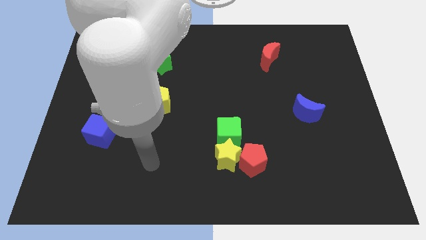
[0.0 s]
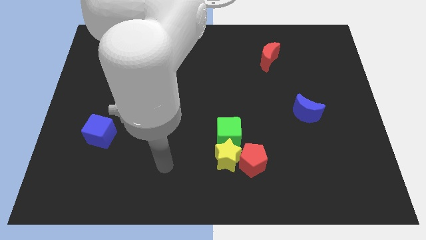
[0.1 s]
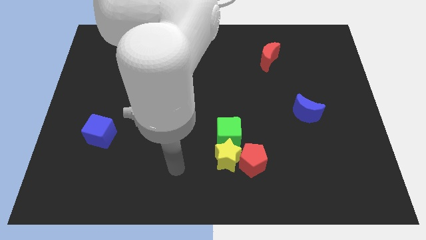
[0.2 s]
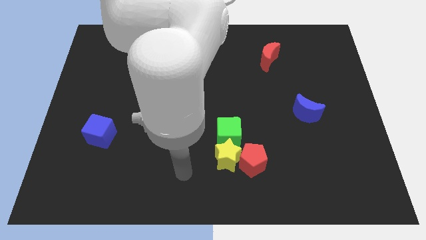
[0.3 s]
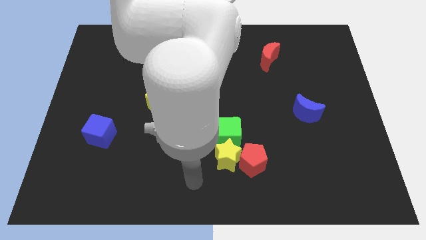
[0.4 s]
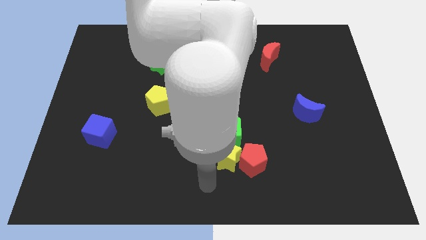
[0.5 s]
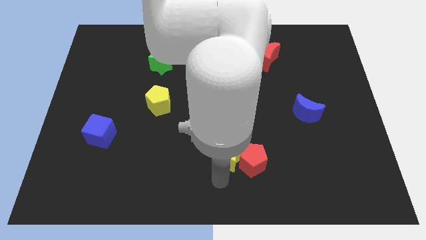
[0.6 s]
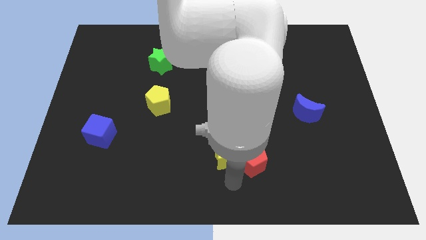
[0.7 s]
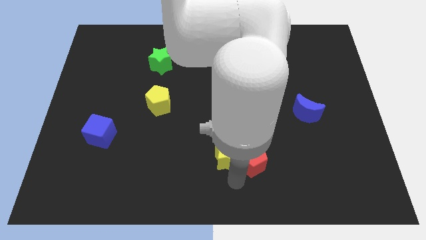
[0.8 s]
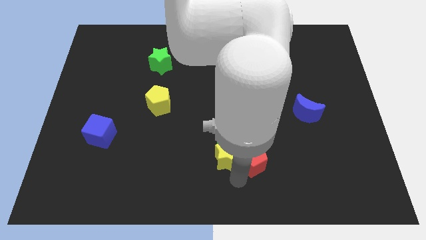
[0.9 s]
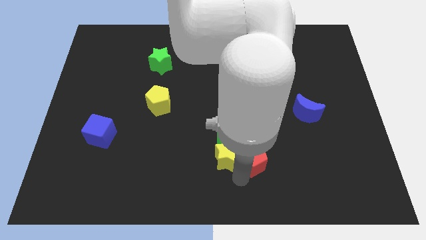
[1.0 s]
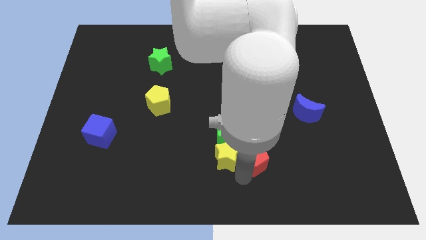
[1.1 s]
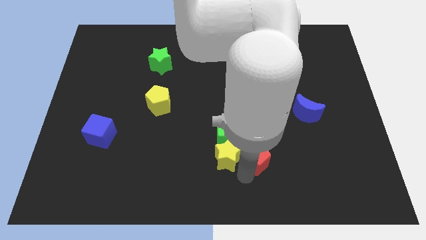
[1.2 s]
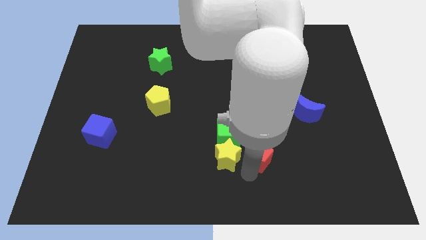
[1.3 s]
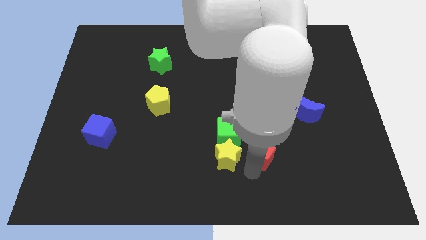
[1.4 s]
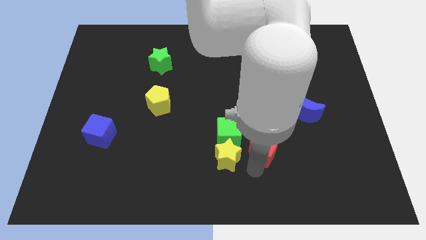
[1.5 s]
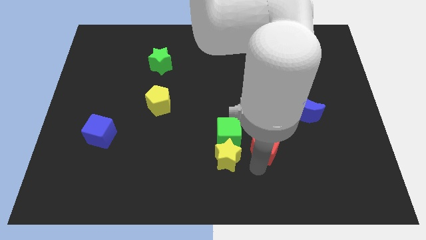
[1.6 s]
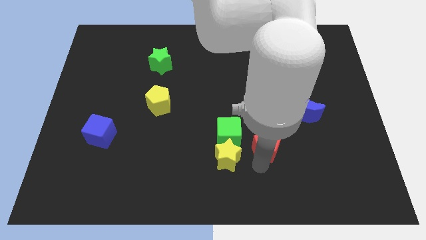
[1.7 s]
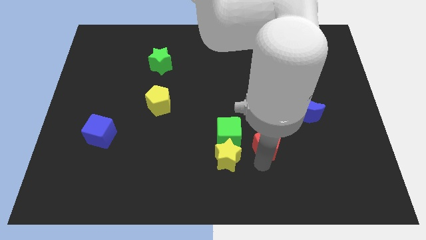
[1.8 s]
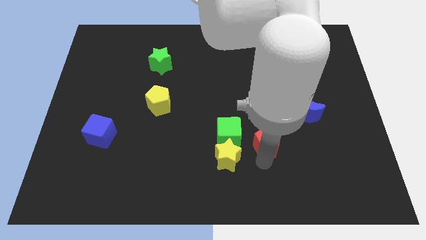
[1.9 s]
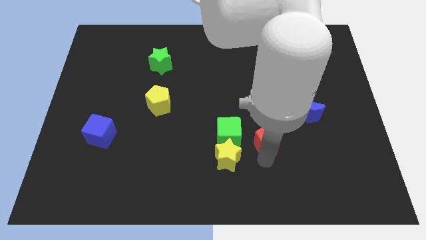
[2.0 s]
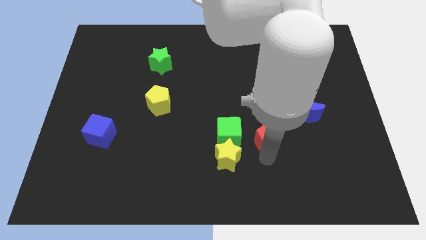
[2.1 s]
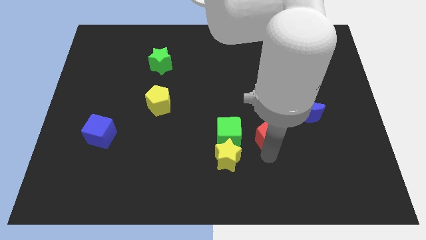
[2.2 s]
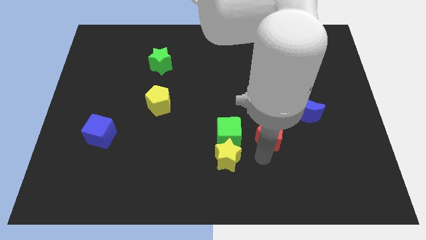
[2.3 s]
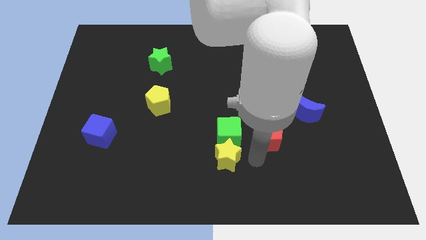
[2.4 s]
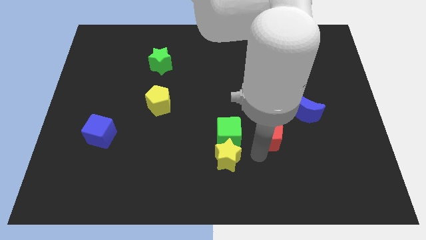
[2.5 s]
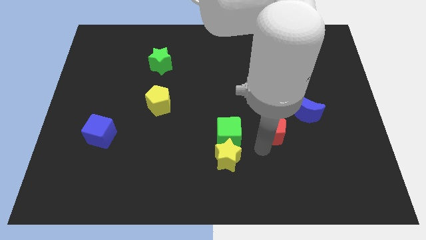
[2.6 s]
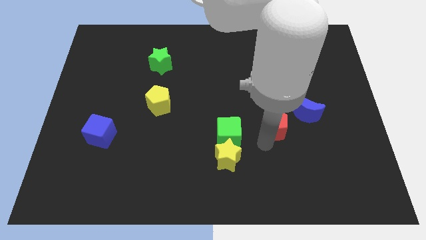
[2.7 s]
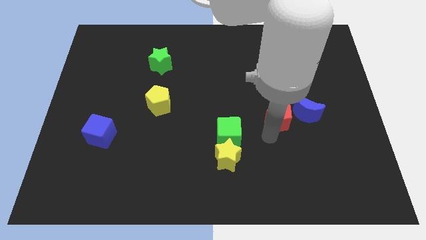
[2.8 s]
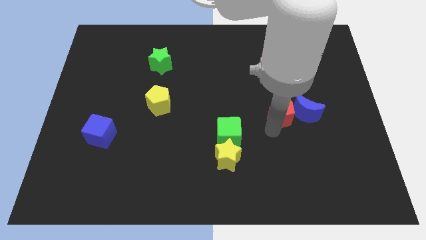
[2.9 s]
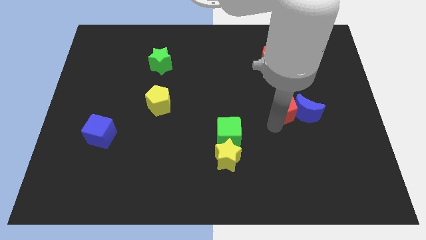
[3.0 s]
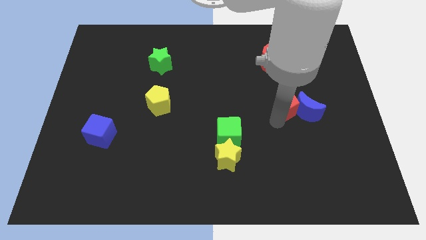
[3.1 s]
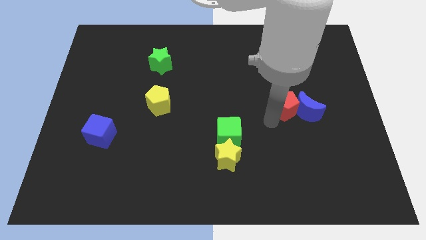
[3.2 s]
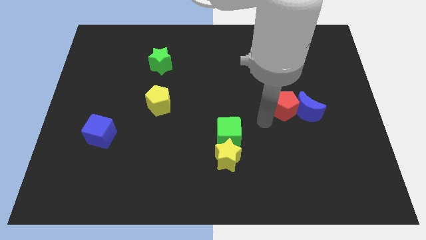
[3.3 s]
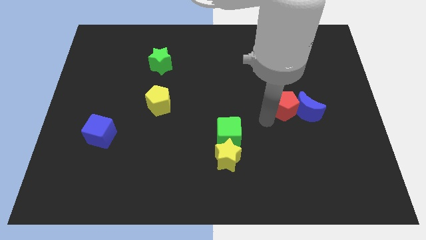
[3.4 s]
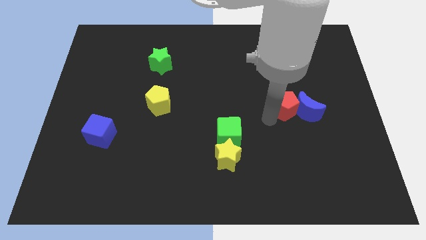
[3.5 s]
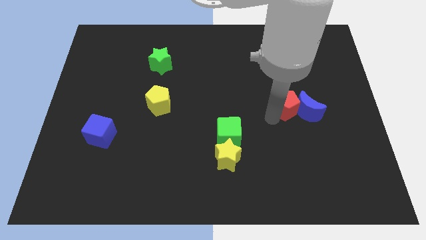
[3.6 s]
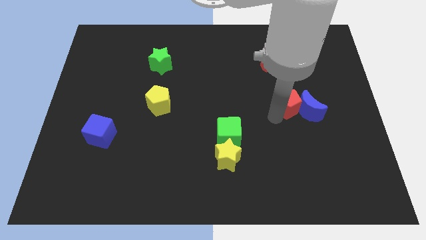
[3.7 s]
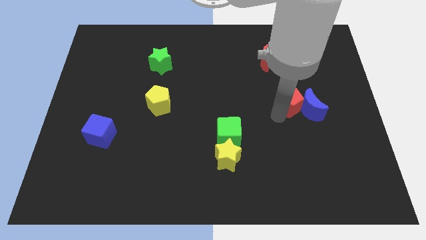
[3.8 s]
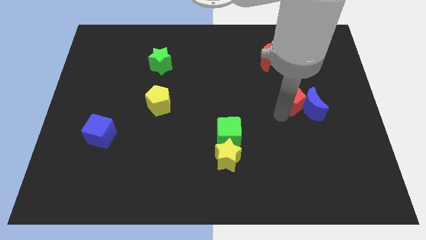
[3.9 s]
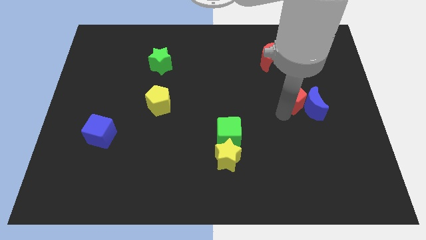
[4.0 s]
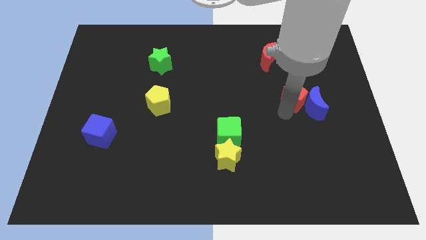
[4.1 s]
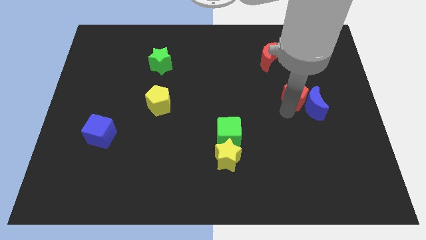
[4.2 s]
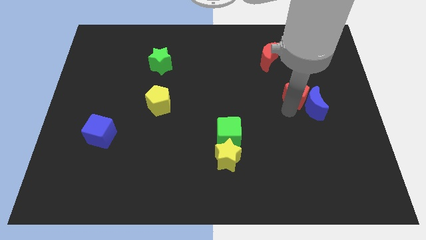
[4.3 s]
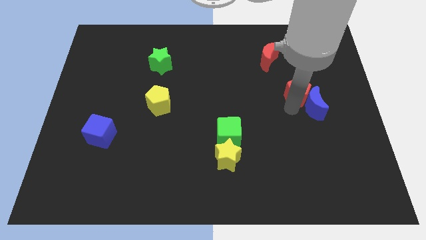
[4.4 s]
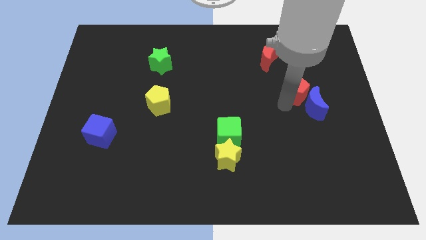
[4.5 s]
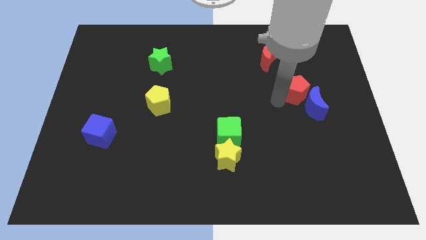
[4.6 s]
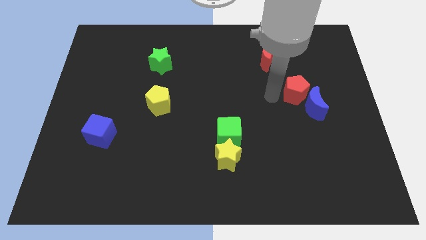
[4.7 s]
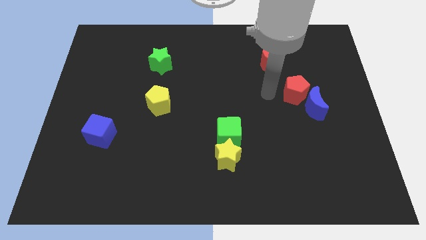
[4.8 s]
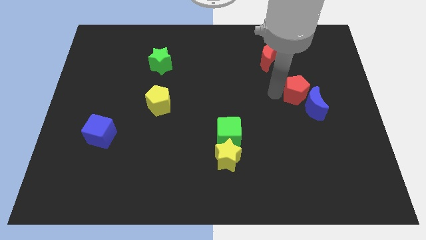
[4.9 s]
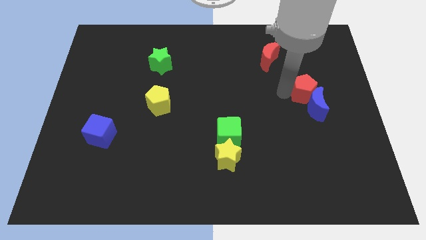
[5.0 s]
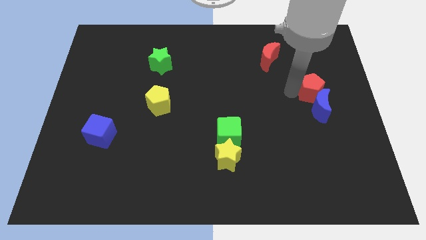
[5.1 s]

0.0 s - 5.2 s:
slide the red pentagon to the top right of the blue moon

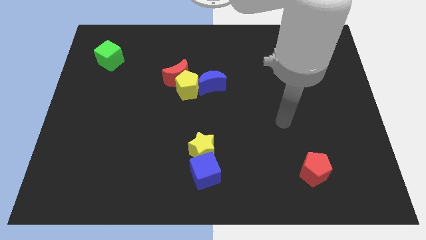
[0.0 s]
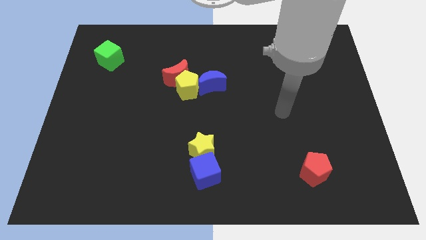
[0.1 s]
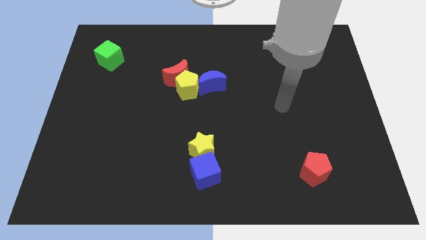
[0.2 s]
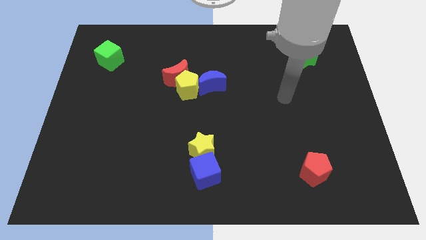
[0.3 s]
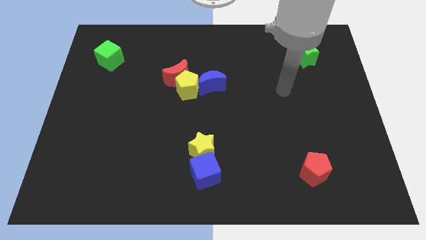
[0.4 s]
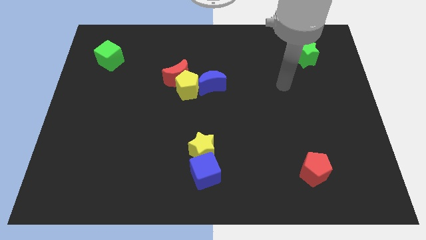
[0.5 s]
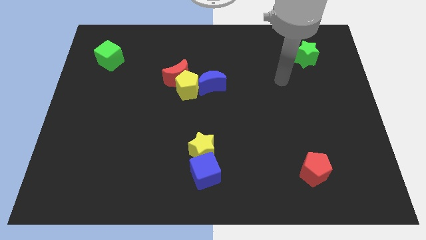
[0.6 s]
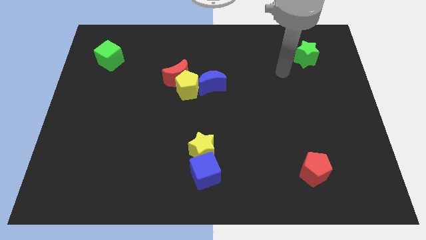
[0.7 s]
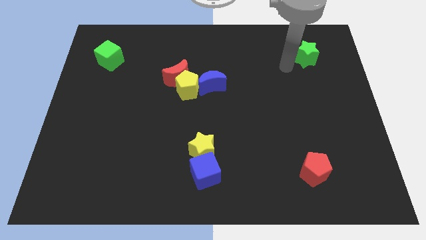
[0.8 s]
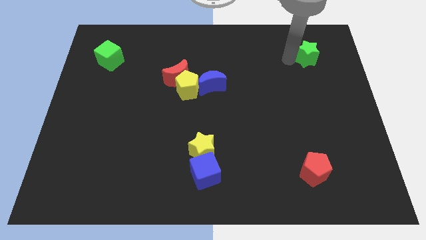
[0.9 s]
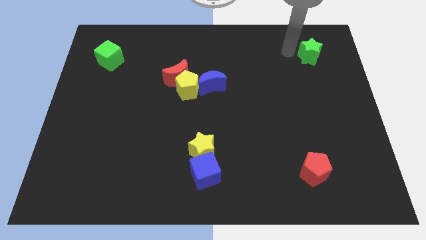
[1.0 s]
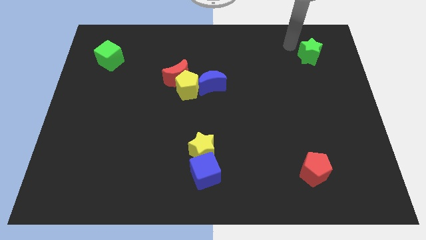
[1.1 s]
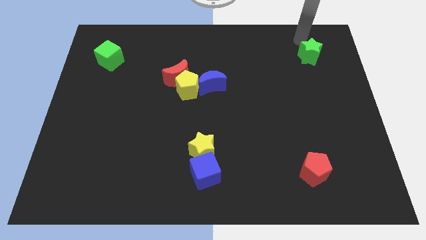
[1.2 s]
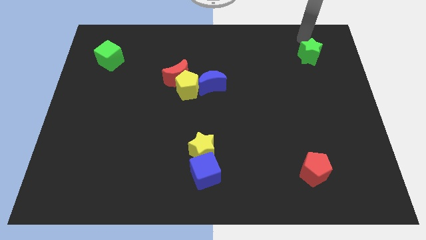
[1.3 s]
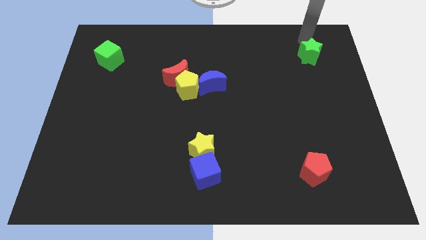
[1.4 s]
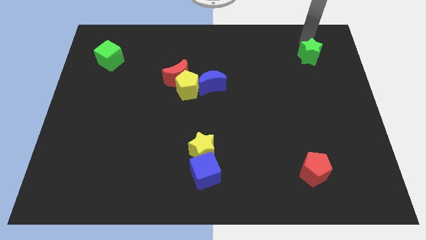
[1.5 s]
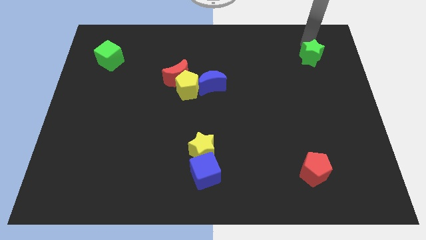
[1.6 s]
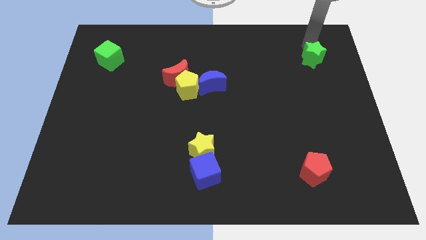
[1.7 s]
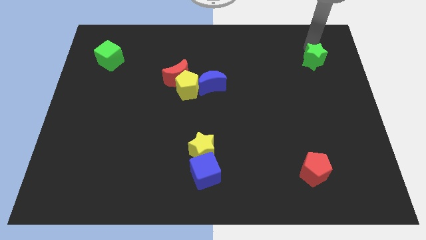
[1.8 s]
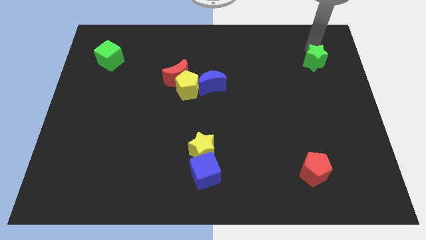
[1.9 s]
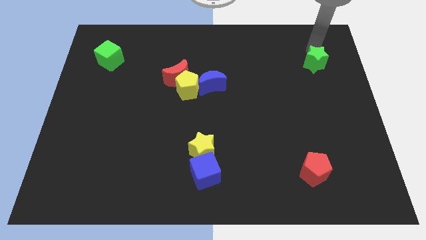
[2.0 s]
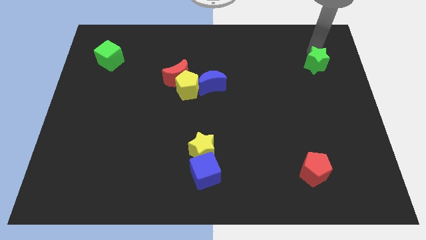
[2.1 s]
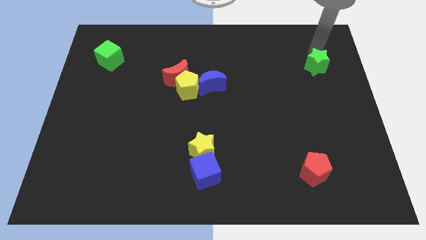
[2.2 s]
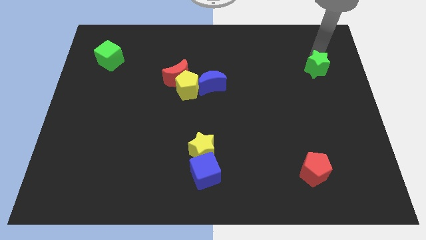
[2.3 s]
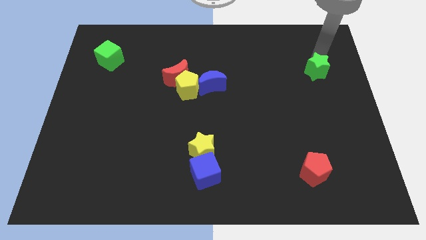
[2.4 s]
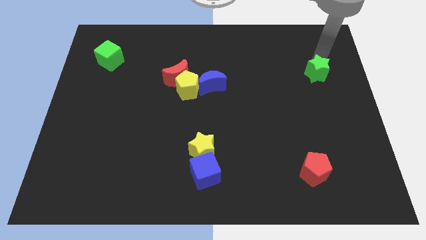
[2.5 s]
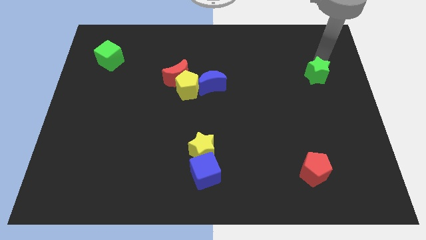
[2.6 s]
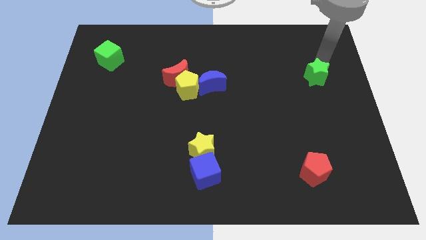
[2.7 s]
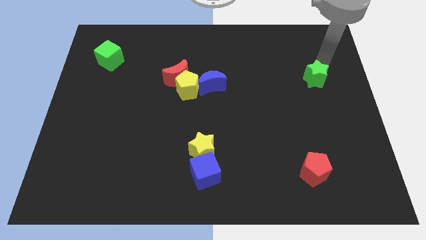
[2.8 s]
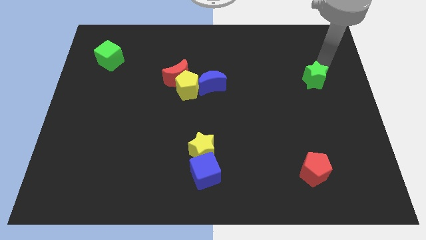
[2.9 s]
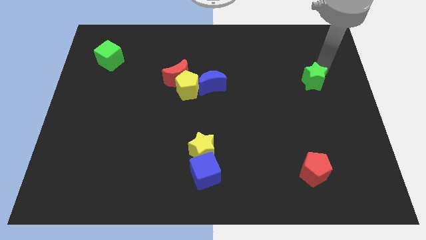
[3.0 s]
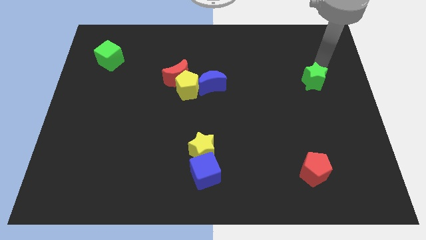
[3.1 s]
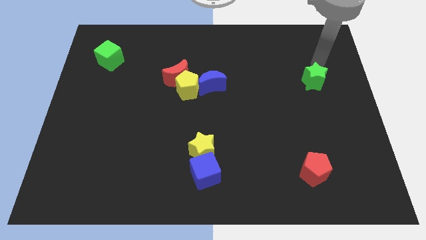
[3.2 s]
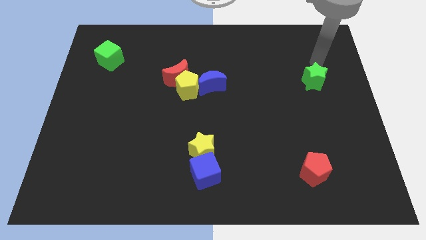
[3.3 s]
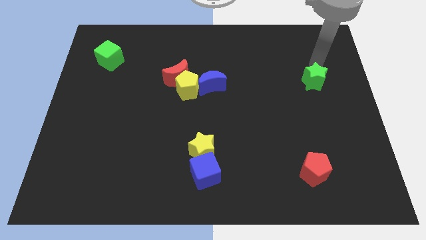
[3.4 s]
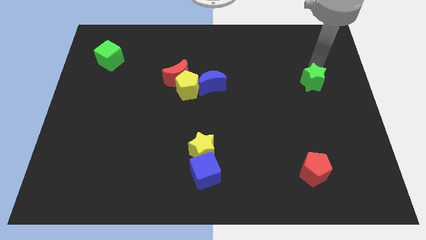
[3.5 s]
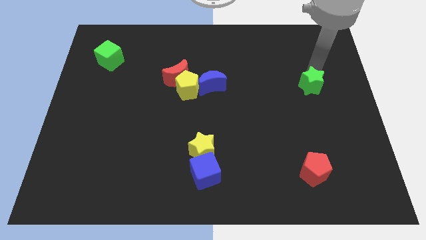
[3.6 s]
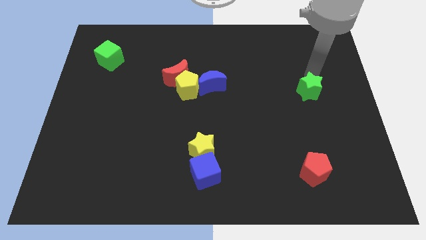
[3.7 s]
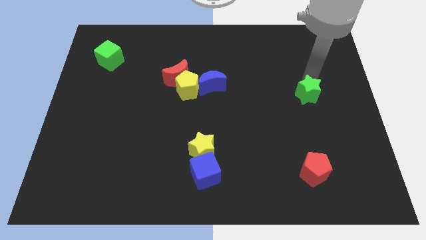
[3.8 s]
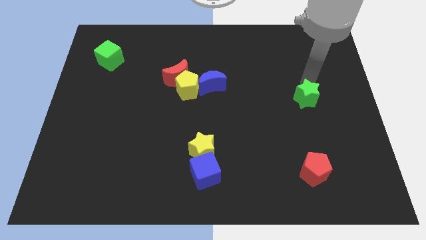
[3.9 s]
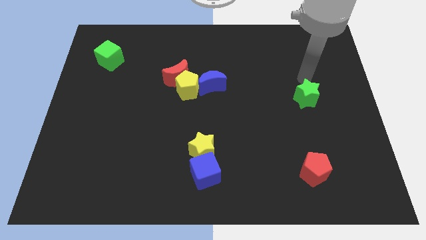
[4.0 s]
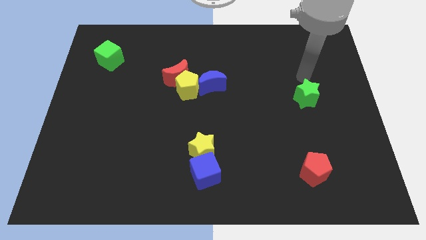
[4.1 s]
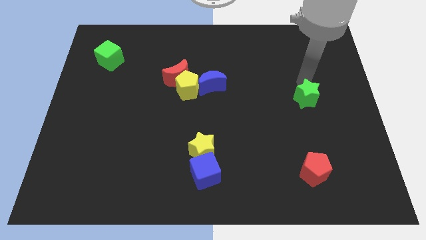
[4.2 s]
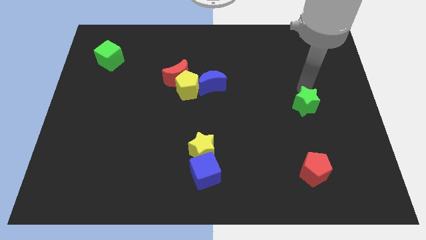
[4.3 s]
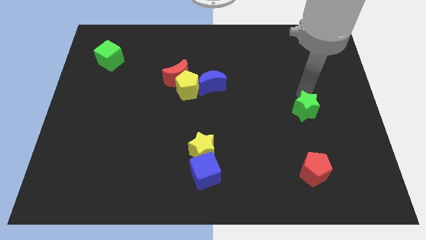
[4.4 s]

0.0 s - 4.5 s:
push the green star above the red pentagon
